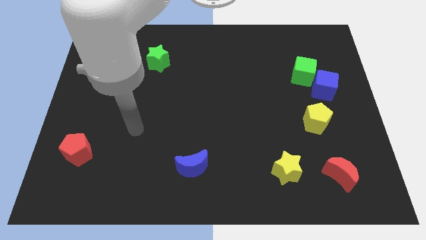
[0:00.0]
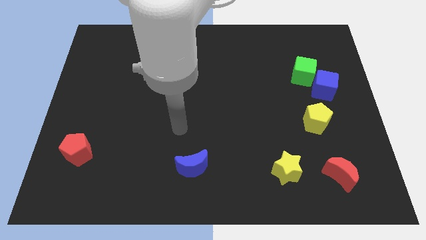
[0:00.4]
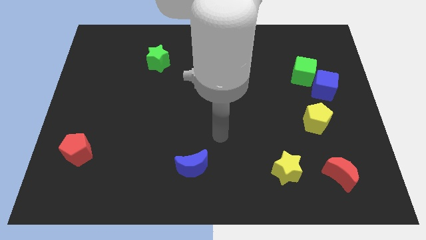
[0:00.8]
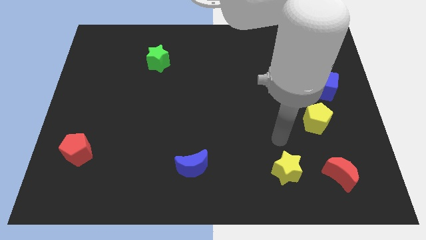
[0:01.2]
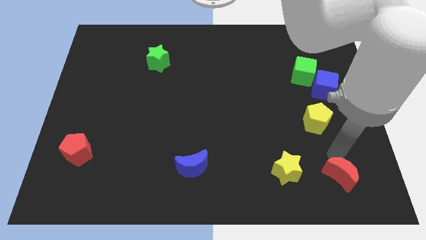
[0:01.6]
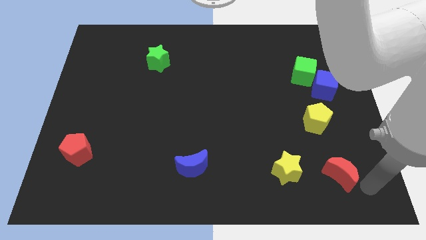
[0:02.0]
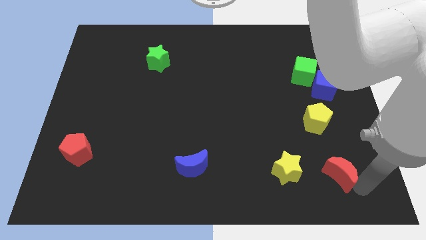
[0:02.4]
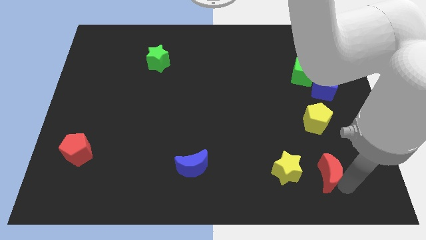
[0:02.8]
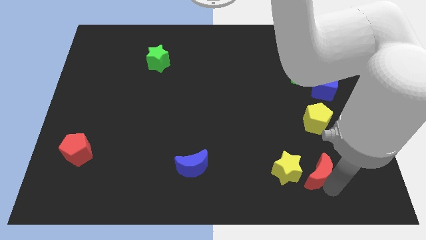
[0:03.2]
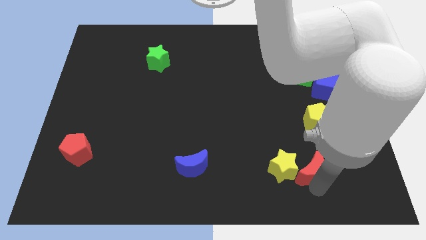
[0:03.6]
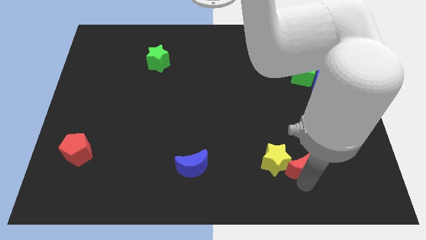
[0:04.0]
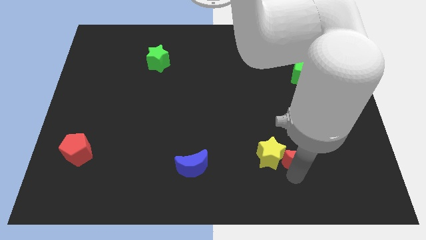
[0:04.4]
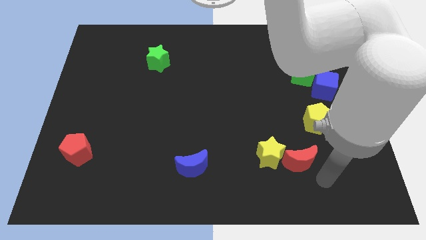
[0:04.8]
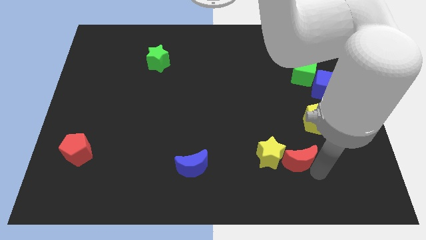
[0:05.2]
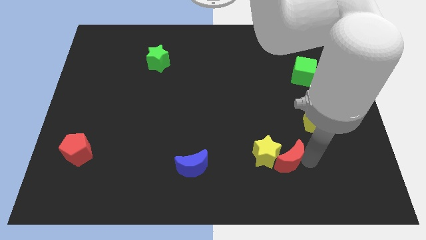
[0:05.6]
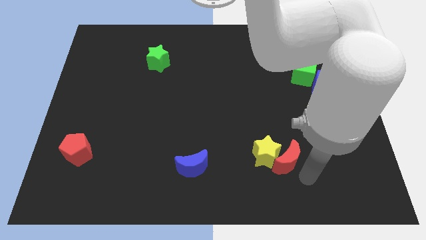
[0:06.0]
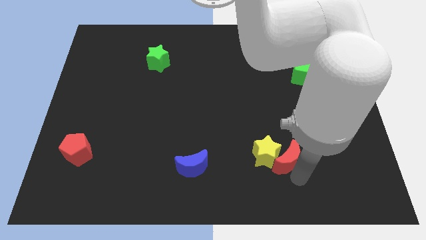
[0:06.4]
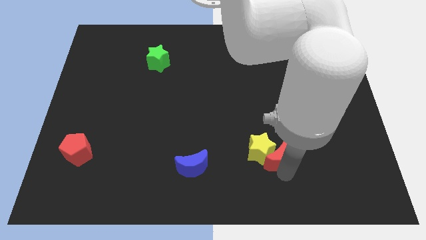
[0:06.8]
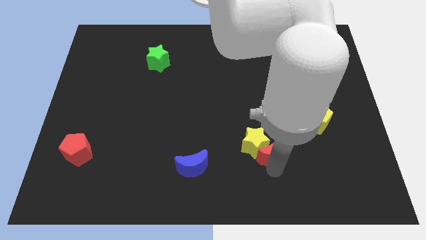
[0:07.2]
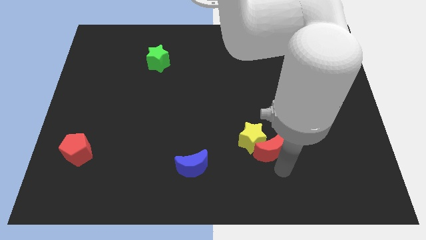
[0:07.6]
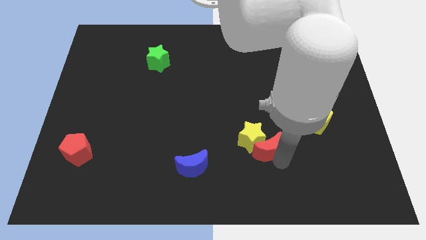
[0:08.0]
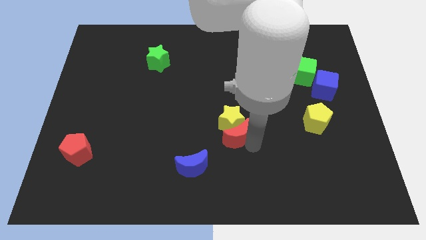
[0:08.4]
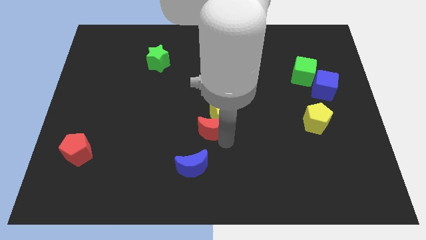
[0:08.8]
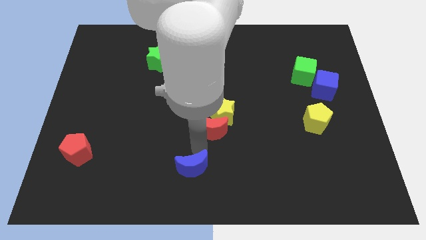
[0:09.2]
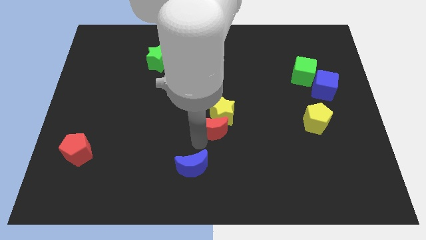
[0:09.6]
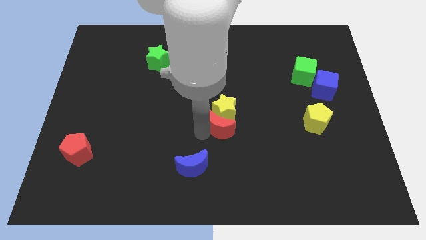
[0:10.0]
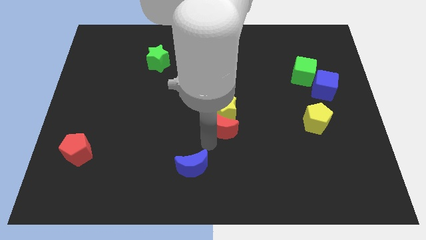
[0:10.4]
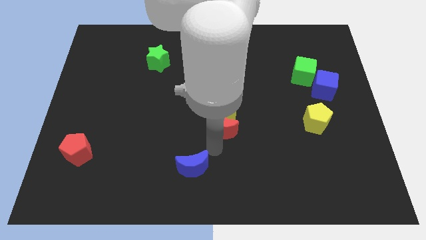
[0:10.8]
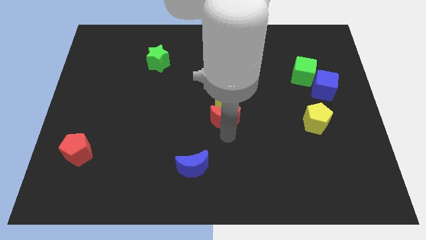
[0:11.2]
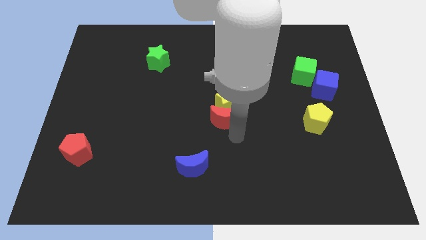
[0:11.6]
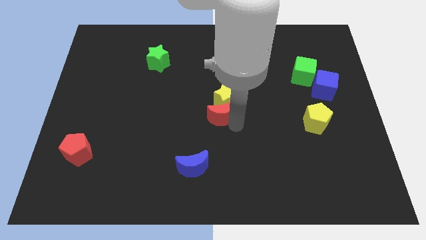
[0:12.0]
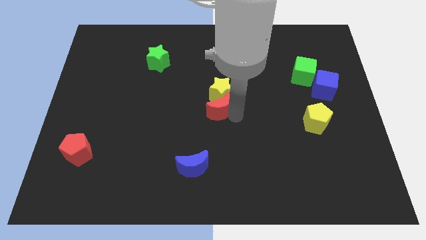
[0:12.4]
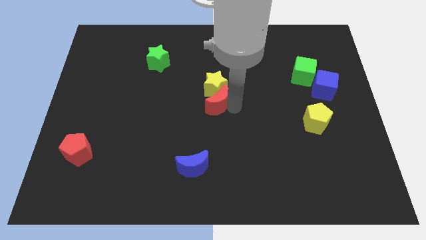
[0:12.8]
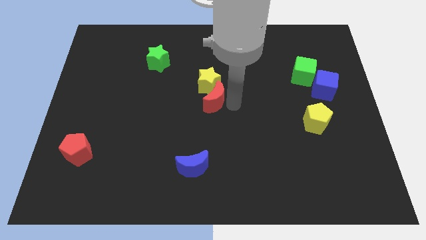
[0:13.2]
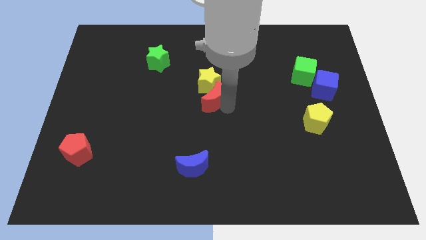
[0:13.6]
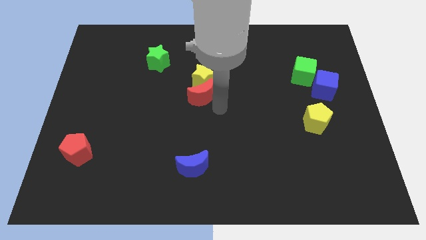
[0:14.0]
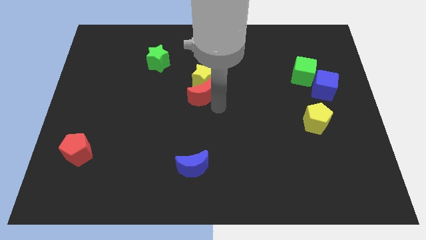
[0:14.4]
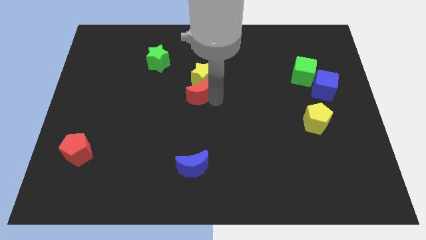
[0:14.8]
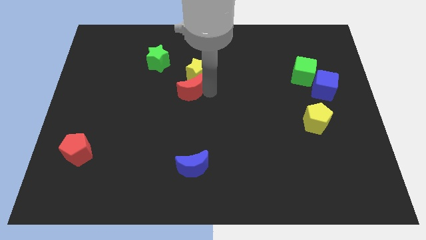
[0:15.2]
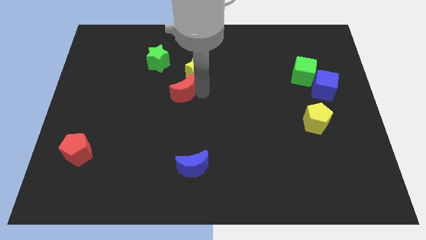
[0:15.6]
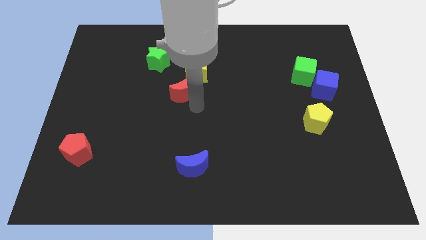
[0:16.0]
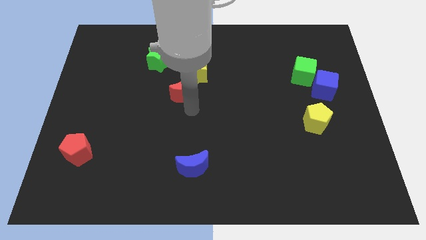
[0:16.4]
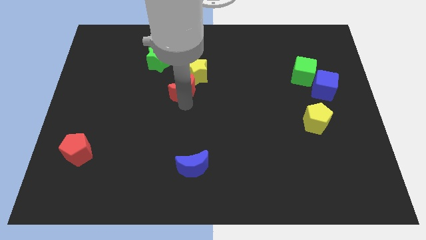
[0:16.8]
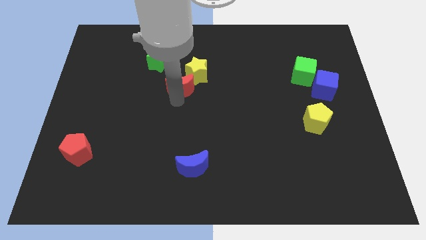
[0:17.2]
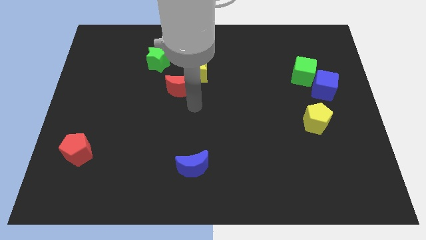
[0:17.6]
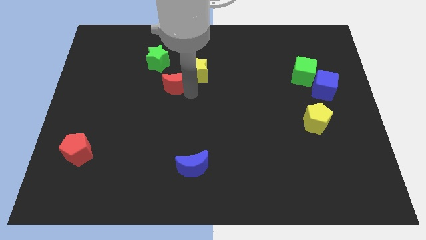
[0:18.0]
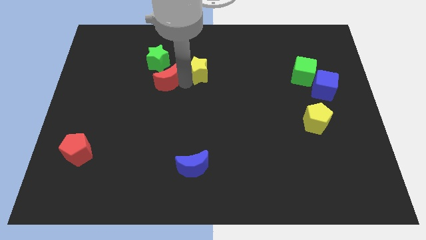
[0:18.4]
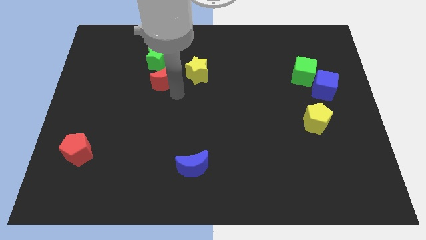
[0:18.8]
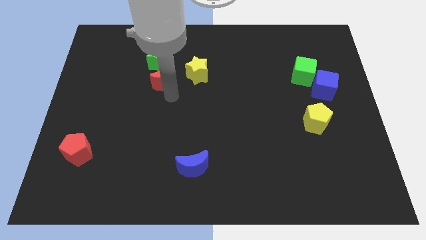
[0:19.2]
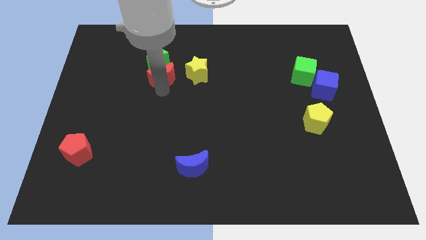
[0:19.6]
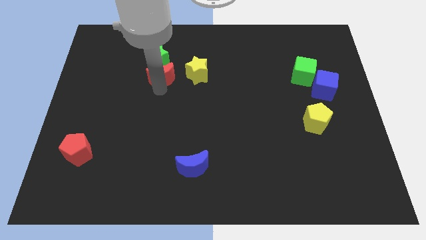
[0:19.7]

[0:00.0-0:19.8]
move the red moon to the green star

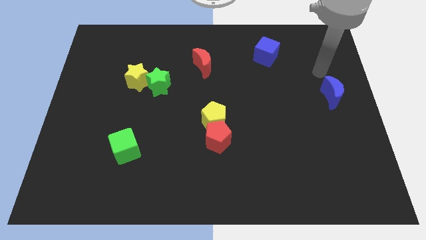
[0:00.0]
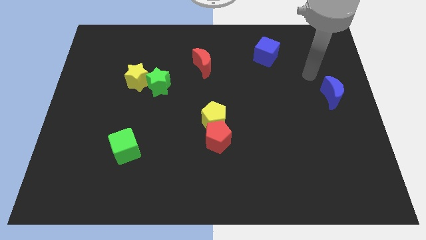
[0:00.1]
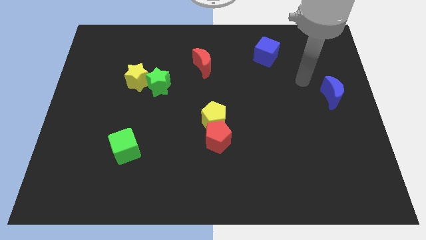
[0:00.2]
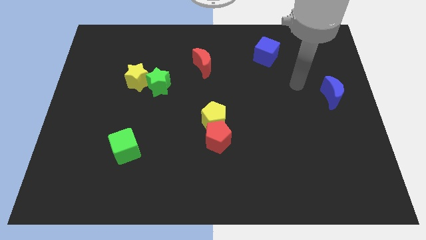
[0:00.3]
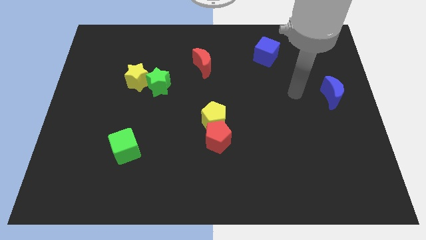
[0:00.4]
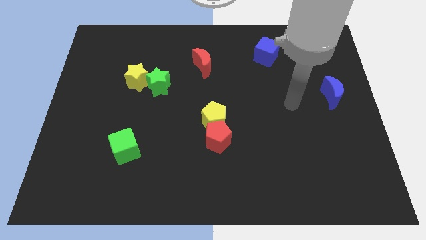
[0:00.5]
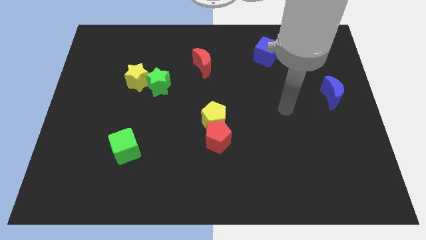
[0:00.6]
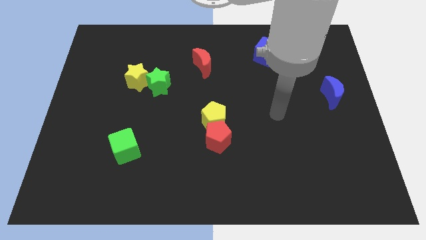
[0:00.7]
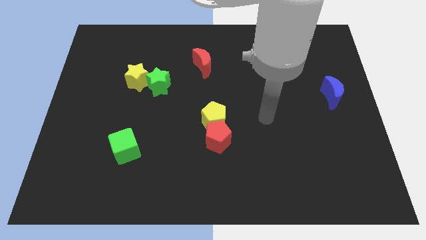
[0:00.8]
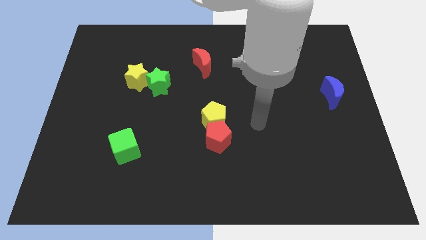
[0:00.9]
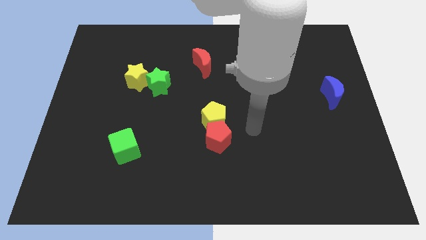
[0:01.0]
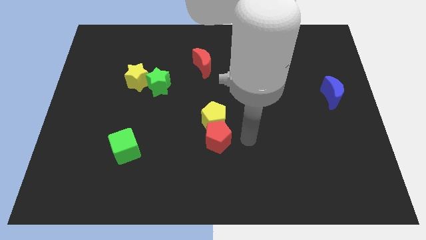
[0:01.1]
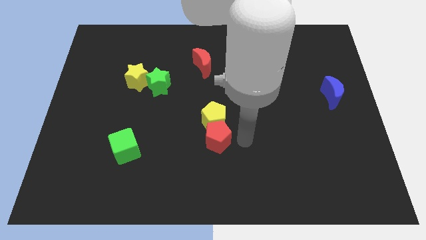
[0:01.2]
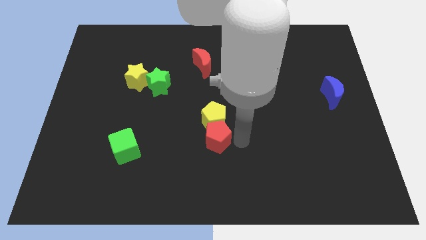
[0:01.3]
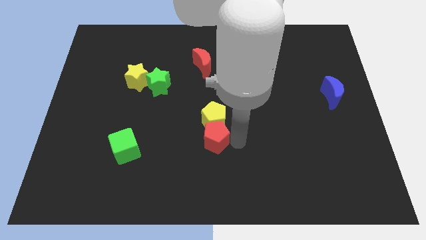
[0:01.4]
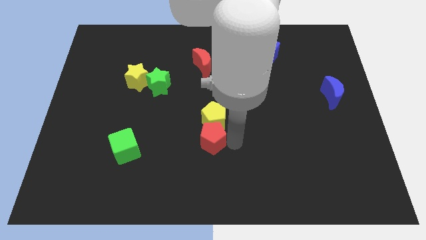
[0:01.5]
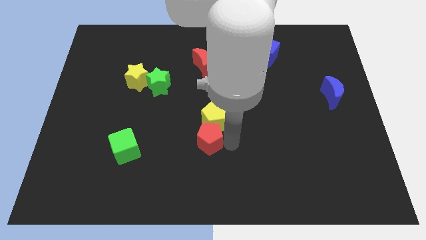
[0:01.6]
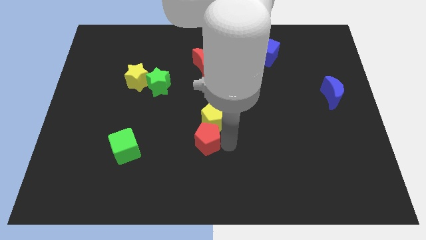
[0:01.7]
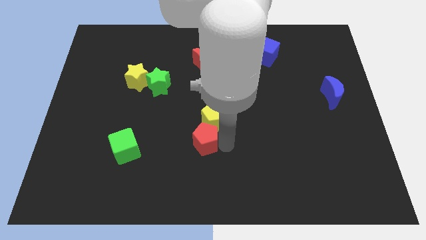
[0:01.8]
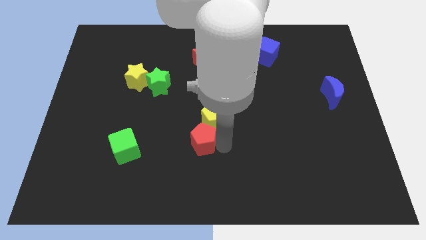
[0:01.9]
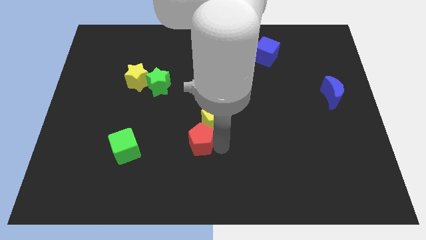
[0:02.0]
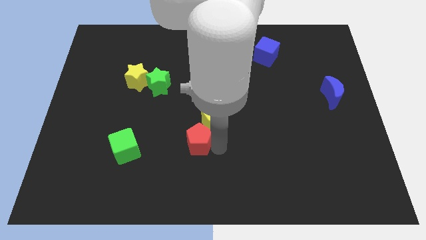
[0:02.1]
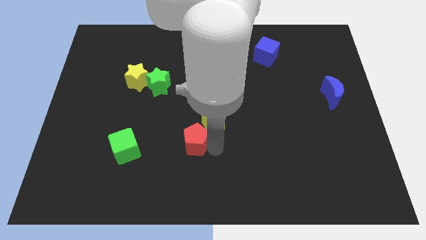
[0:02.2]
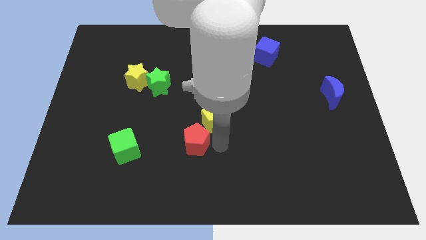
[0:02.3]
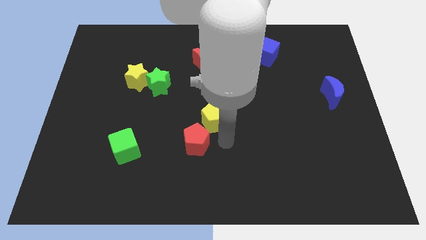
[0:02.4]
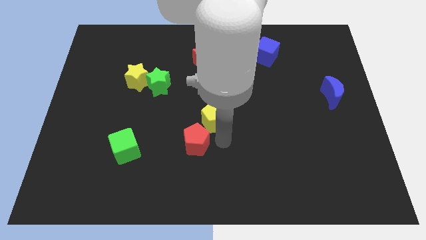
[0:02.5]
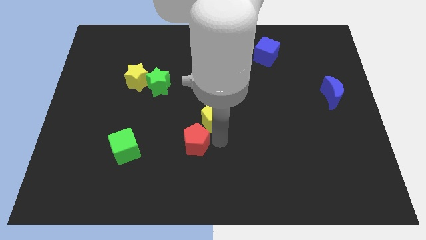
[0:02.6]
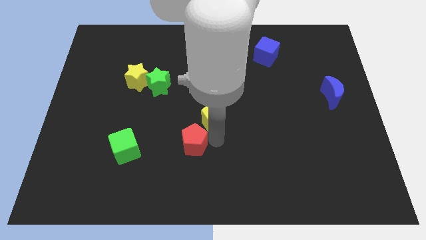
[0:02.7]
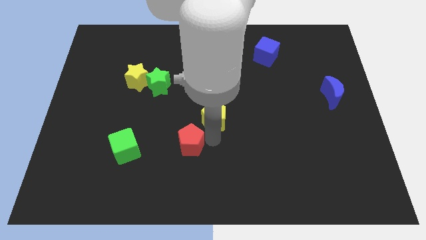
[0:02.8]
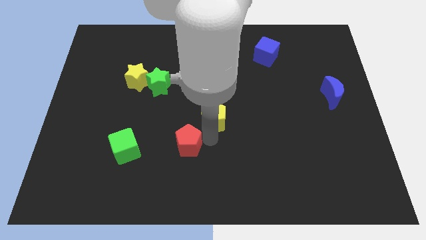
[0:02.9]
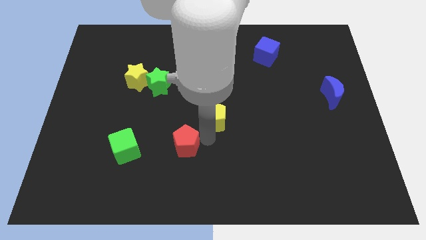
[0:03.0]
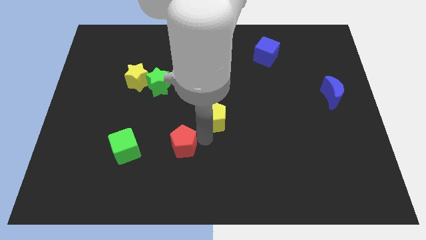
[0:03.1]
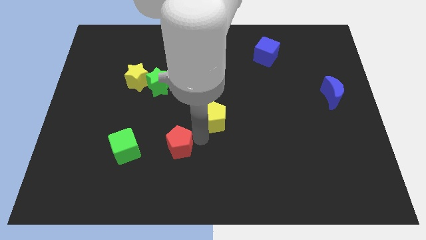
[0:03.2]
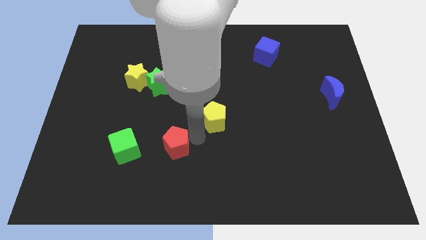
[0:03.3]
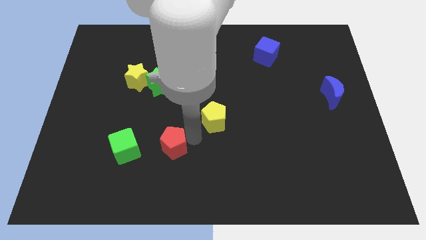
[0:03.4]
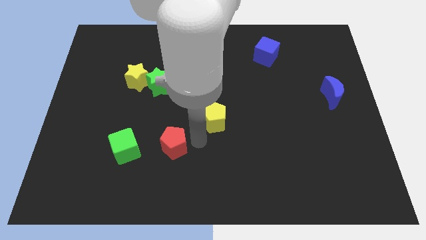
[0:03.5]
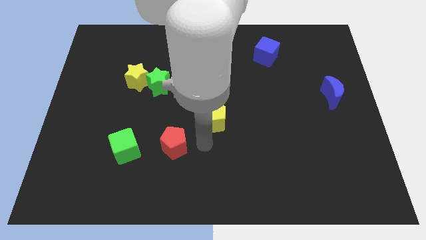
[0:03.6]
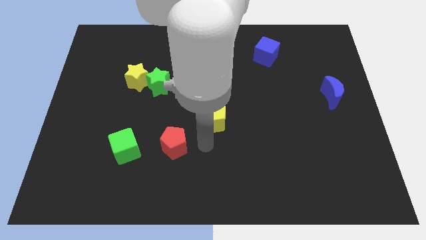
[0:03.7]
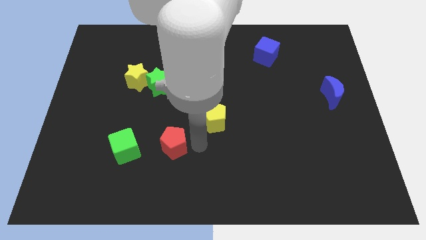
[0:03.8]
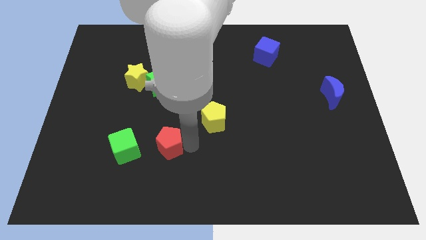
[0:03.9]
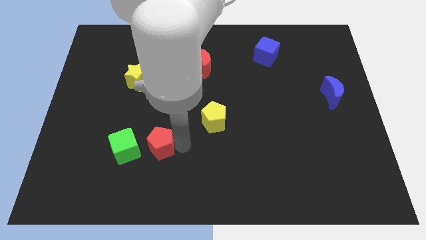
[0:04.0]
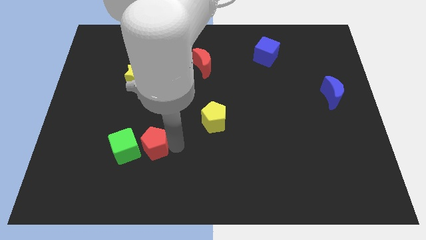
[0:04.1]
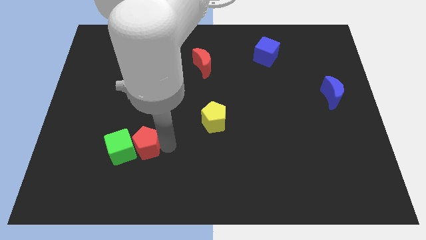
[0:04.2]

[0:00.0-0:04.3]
move the red pentagon next to the green cube
